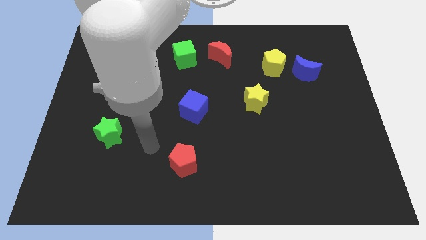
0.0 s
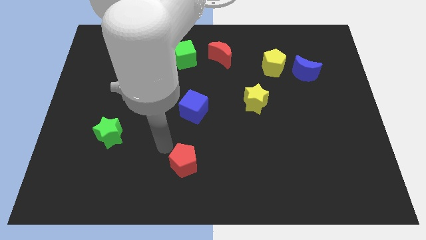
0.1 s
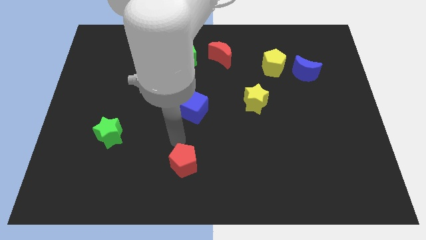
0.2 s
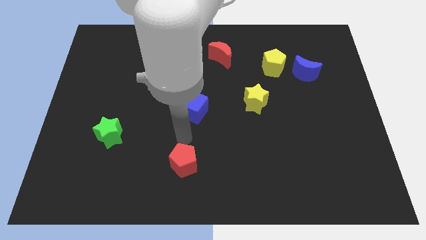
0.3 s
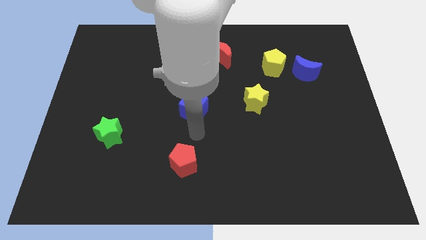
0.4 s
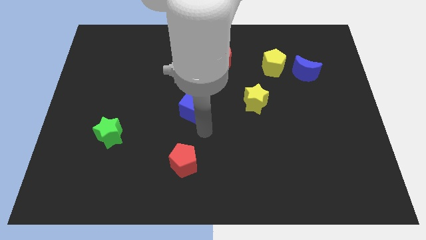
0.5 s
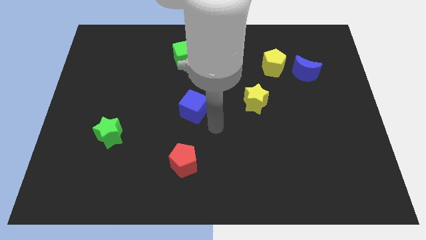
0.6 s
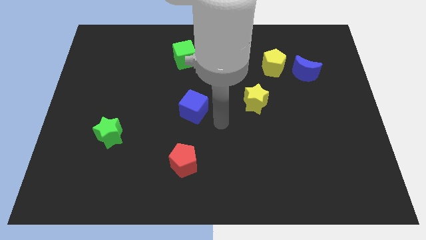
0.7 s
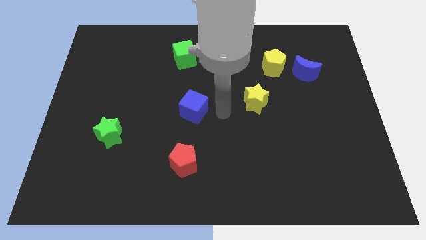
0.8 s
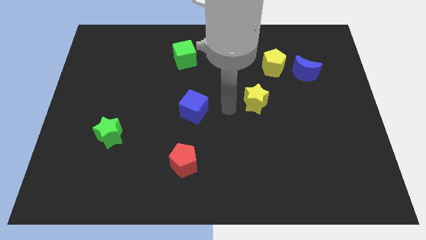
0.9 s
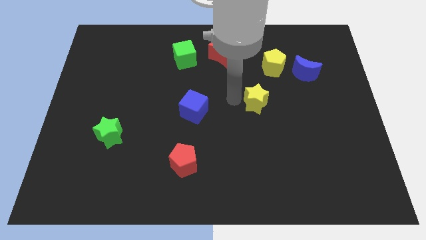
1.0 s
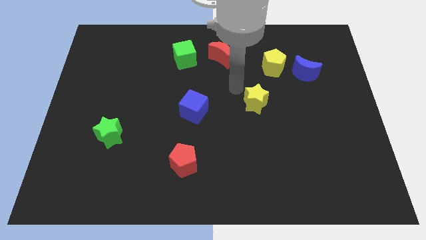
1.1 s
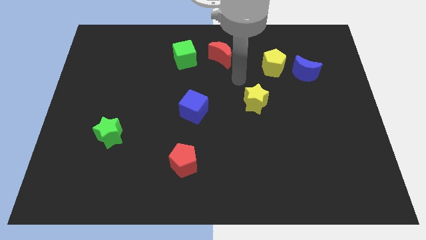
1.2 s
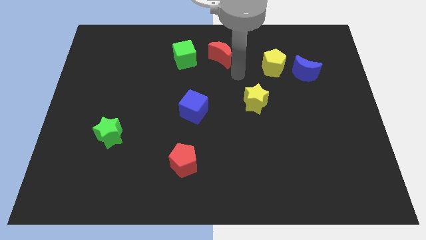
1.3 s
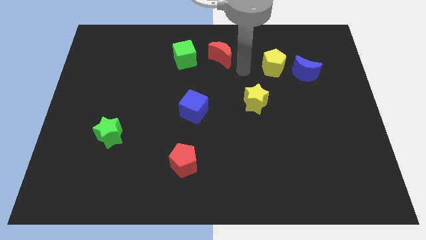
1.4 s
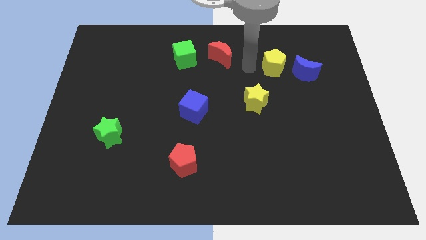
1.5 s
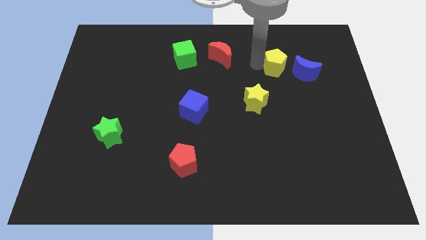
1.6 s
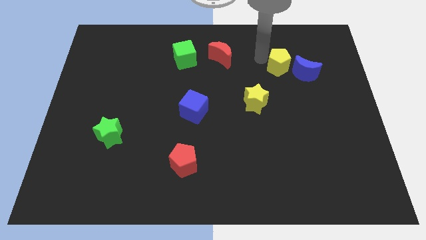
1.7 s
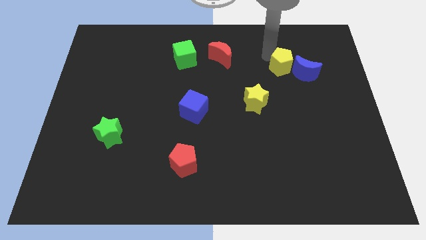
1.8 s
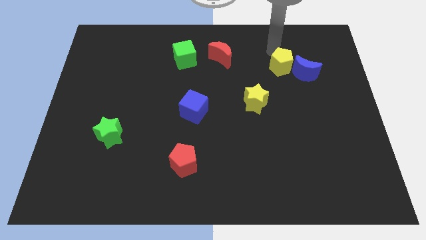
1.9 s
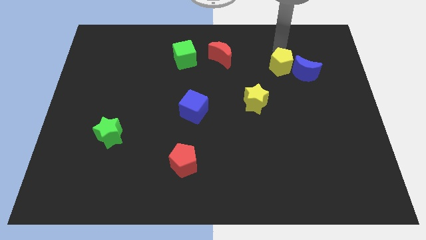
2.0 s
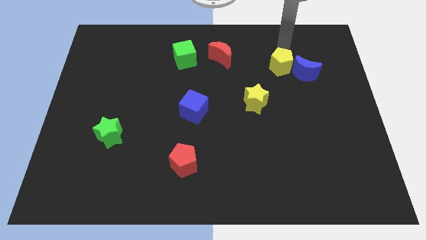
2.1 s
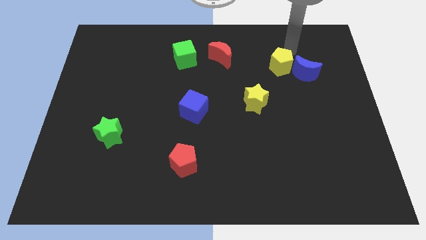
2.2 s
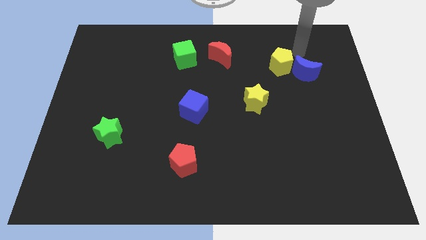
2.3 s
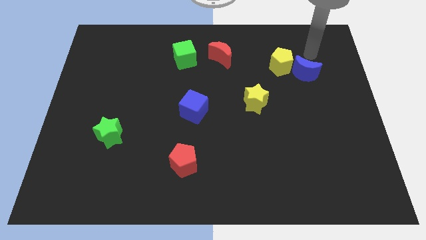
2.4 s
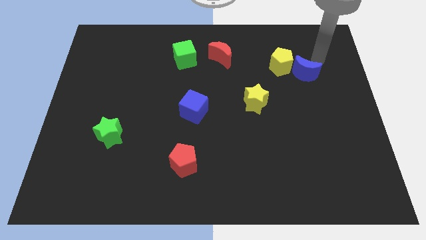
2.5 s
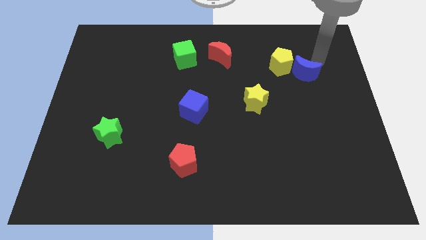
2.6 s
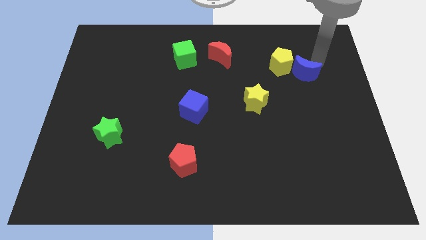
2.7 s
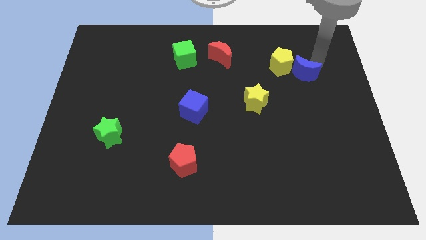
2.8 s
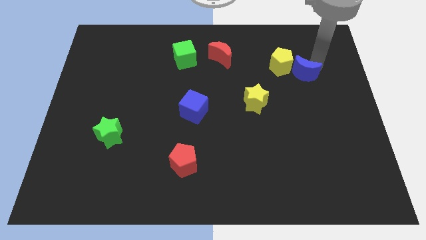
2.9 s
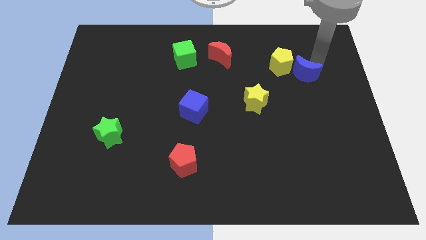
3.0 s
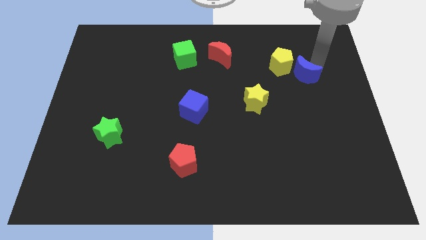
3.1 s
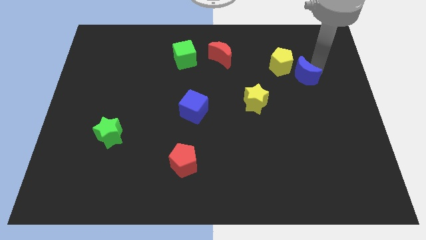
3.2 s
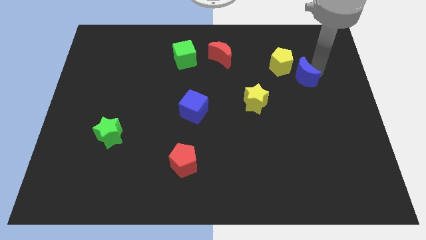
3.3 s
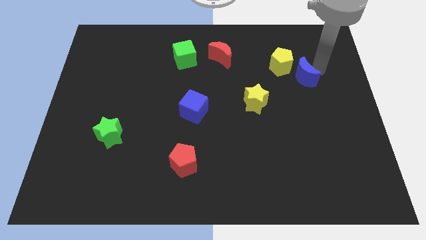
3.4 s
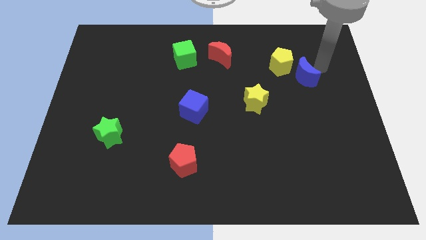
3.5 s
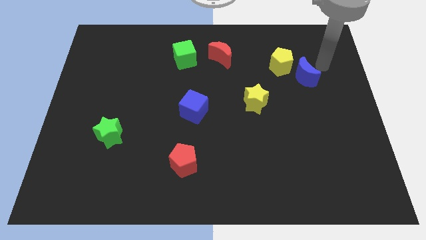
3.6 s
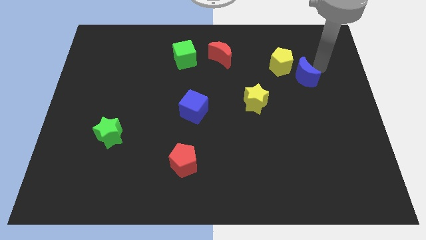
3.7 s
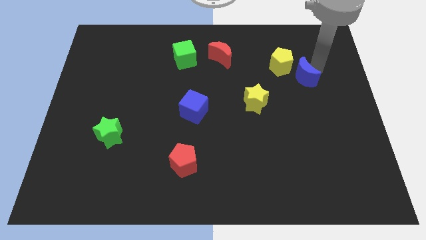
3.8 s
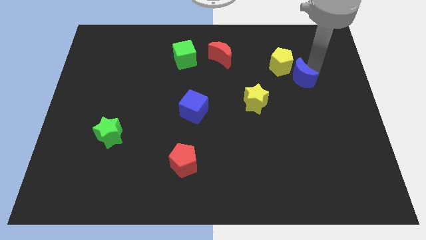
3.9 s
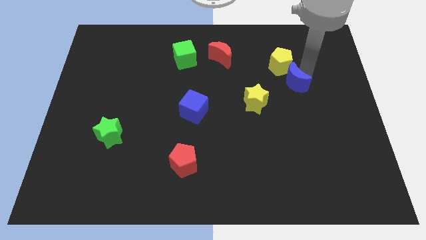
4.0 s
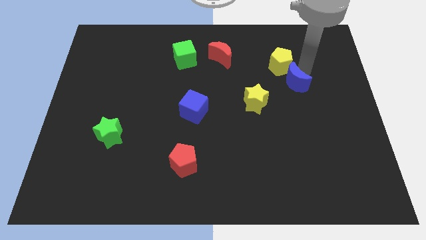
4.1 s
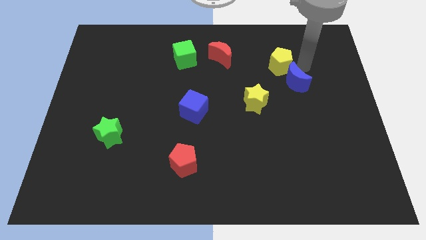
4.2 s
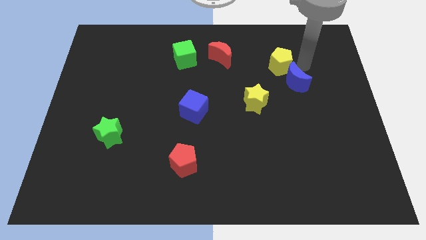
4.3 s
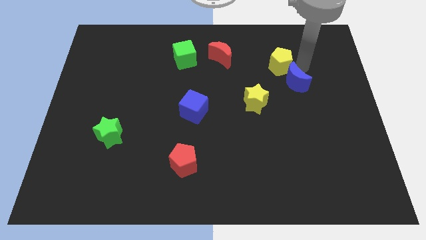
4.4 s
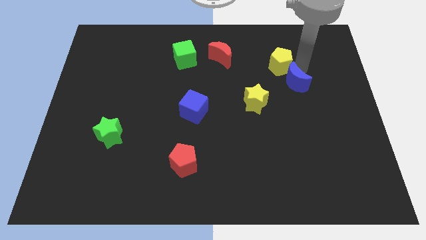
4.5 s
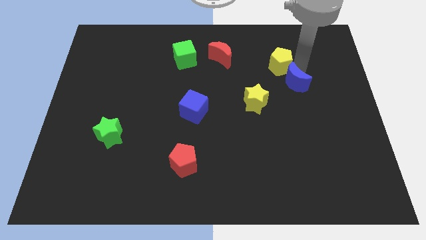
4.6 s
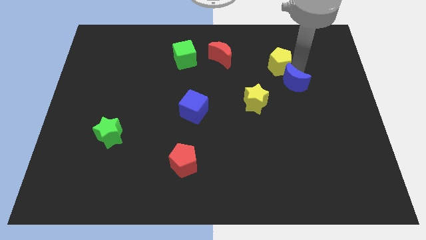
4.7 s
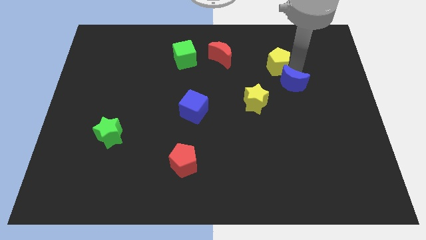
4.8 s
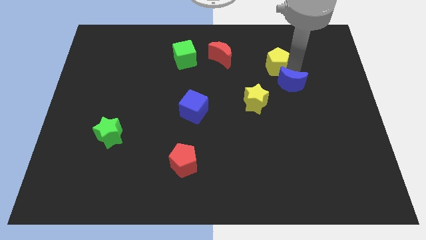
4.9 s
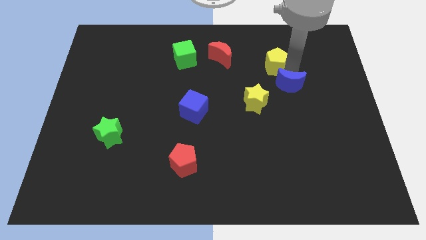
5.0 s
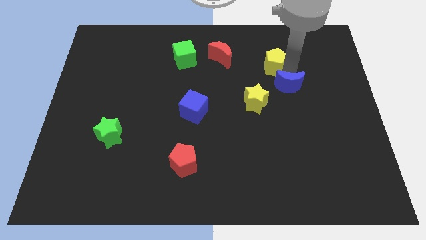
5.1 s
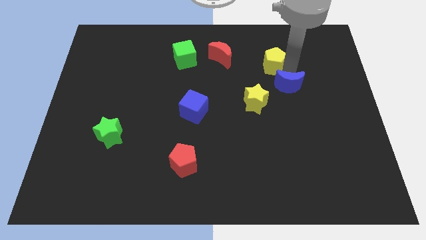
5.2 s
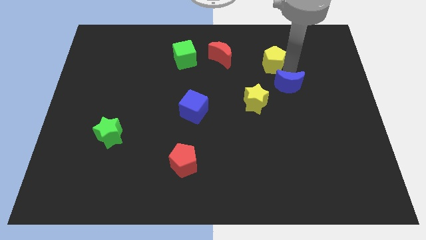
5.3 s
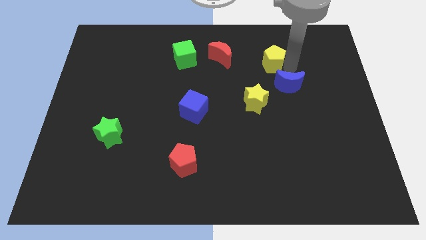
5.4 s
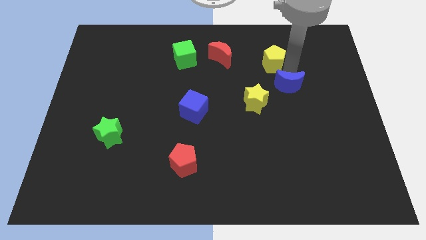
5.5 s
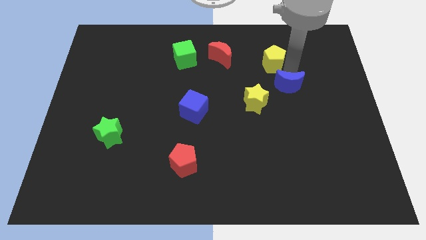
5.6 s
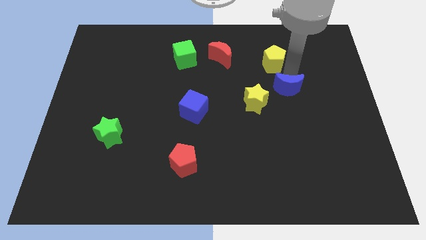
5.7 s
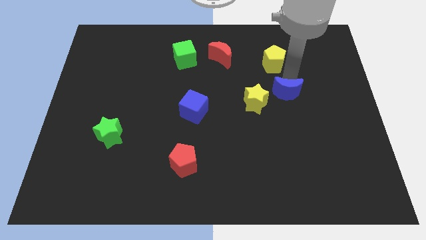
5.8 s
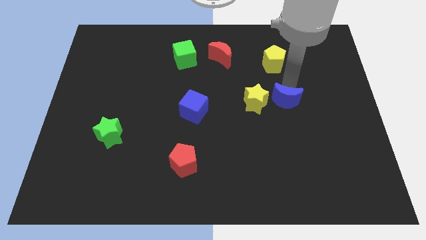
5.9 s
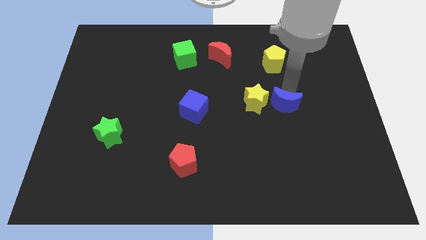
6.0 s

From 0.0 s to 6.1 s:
put the blue moon diagonally down and to the right of the yellow star

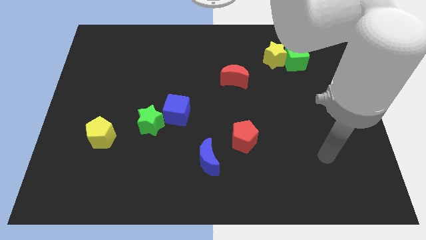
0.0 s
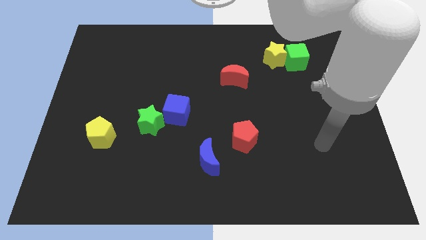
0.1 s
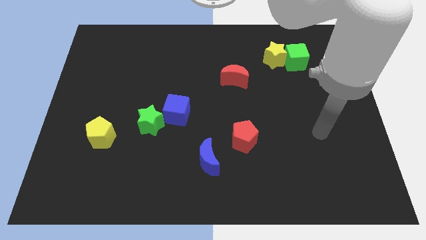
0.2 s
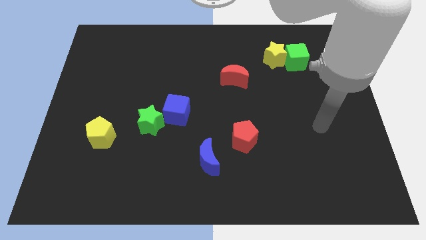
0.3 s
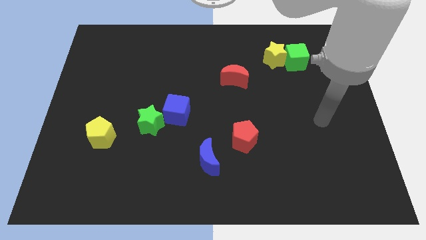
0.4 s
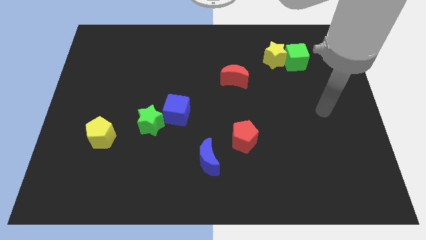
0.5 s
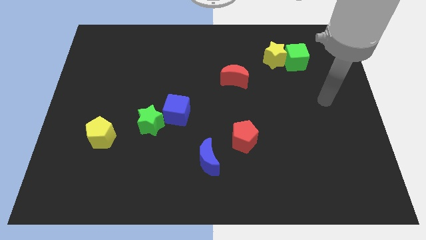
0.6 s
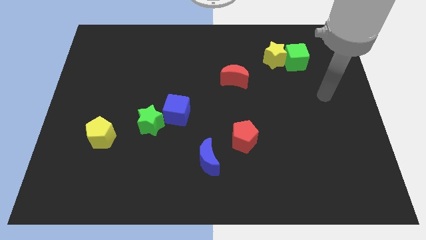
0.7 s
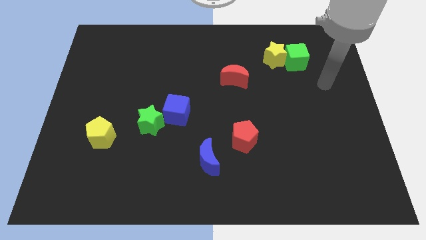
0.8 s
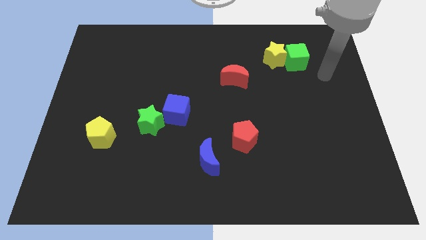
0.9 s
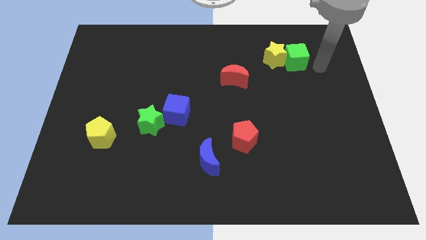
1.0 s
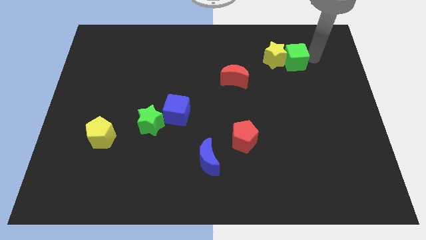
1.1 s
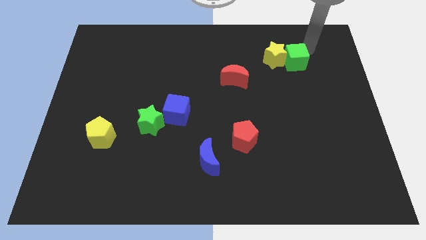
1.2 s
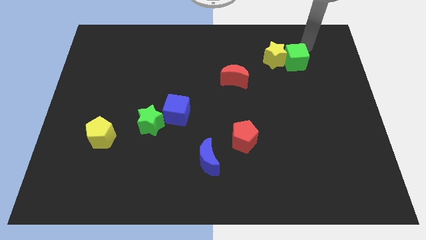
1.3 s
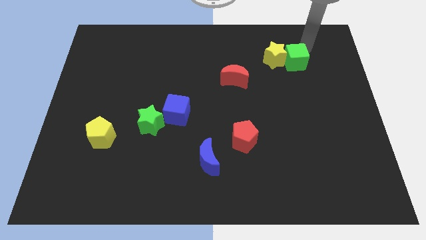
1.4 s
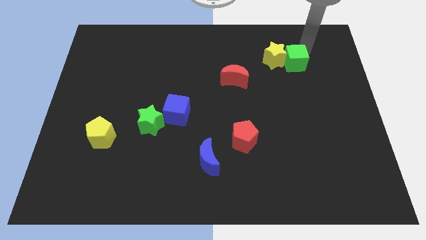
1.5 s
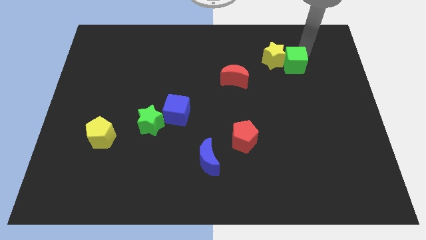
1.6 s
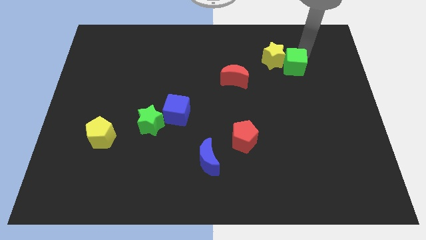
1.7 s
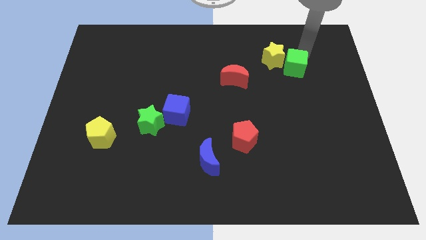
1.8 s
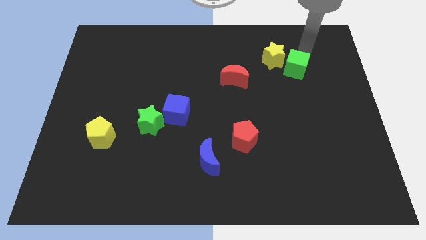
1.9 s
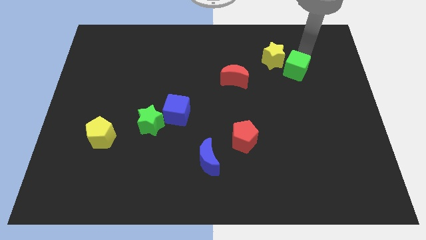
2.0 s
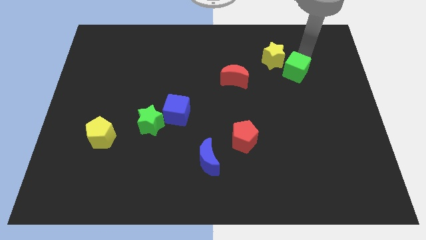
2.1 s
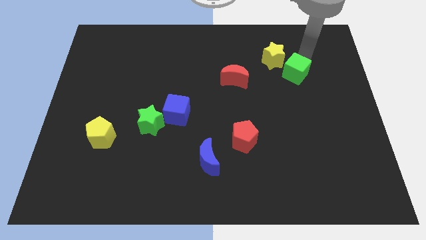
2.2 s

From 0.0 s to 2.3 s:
slide the green cube below the yellow star
